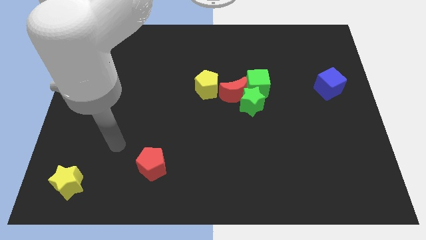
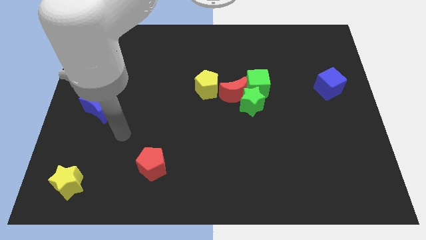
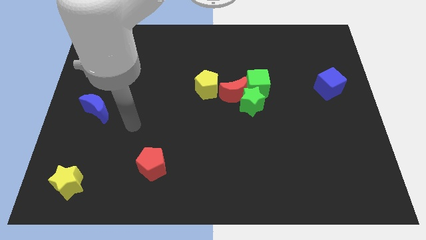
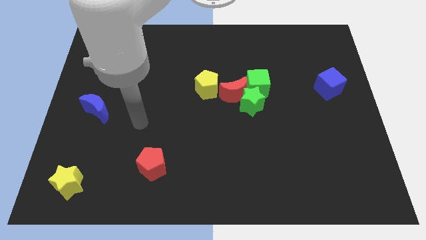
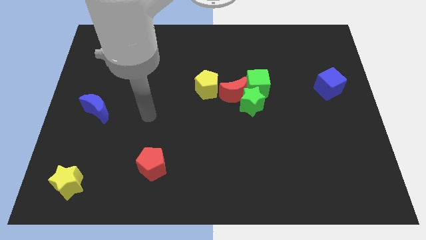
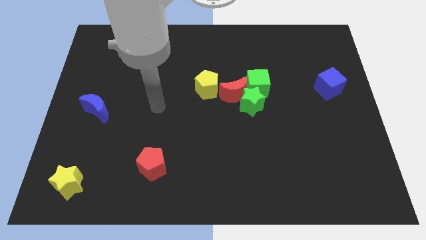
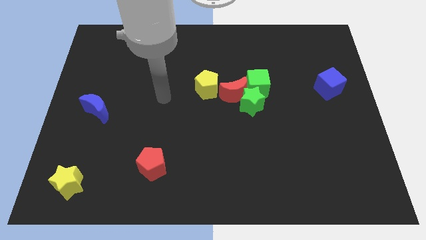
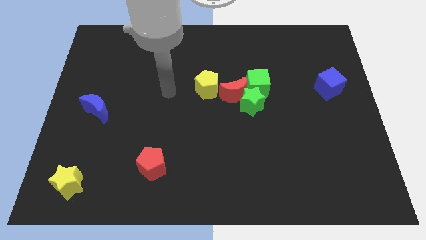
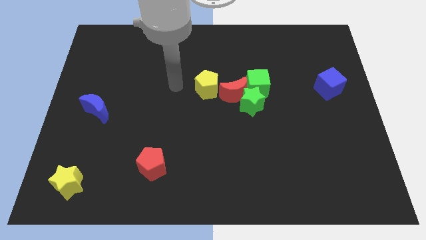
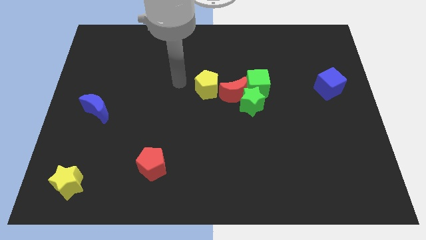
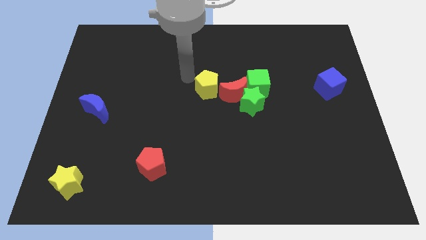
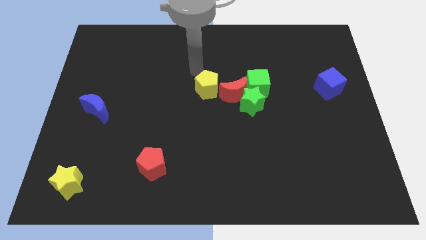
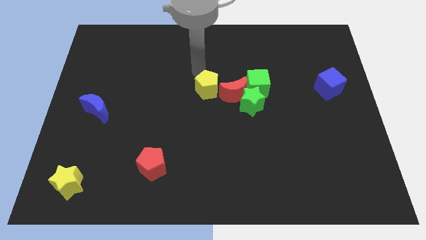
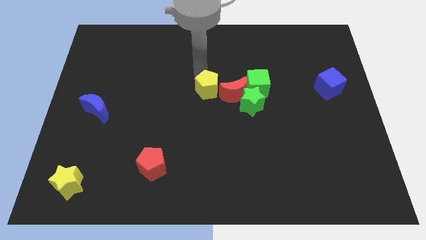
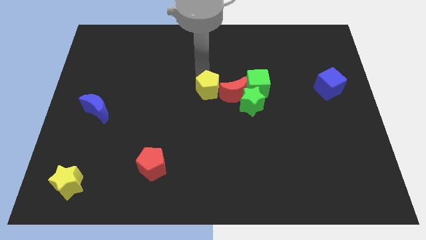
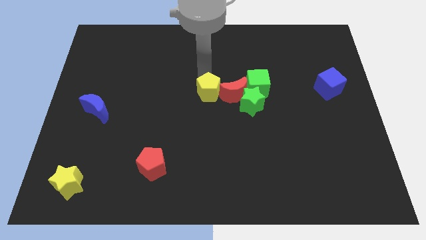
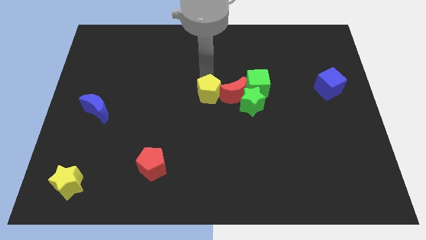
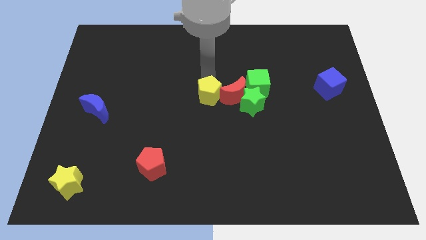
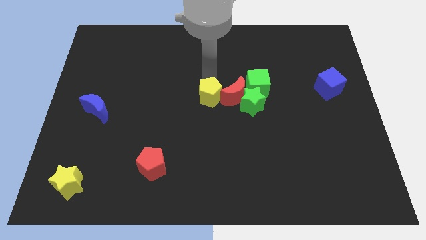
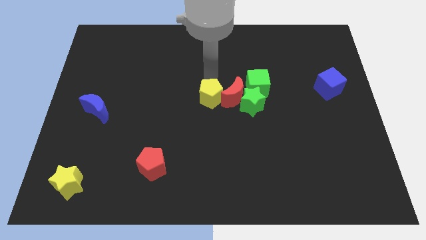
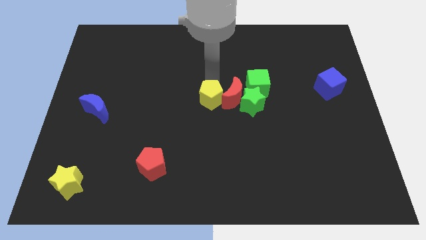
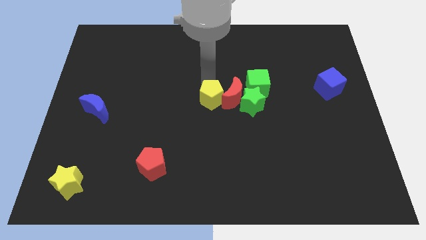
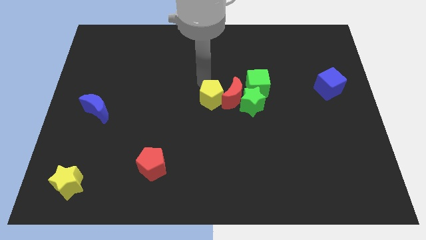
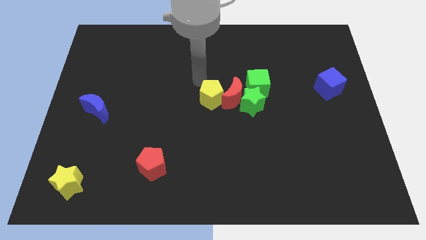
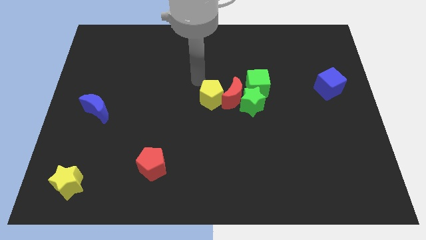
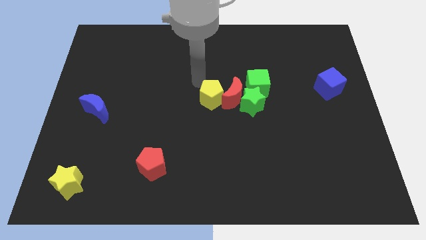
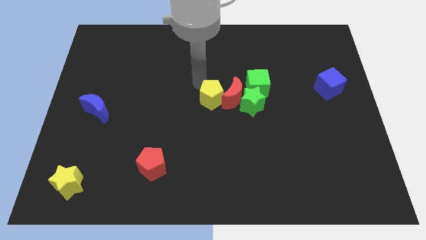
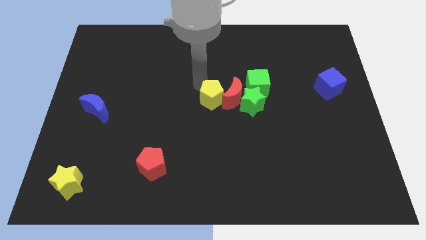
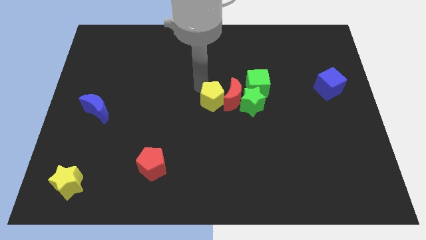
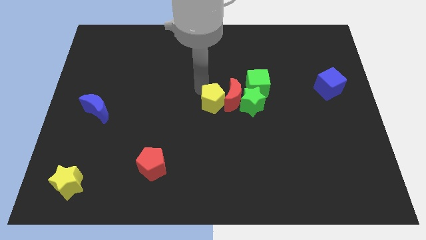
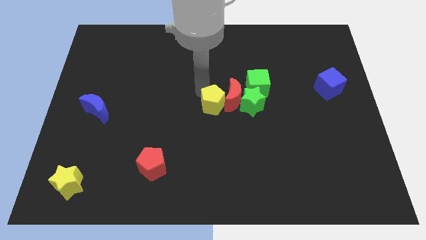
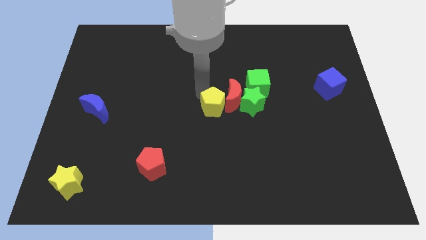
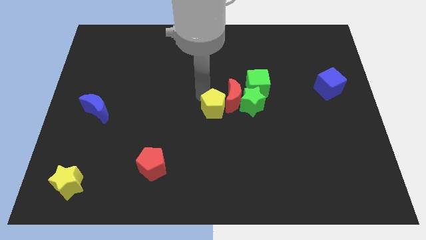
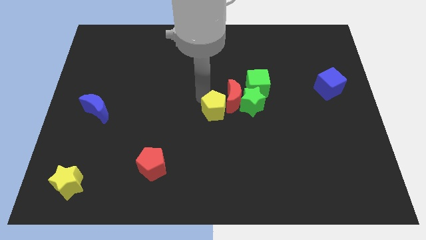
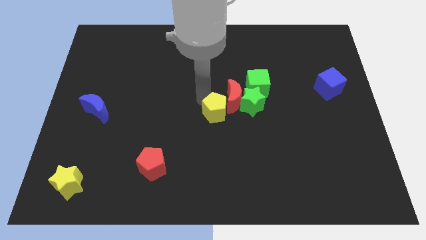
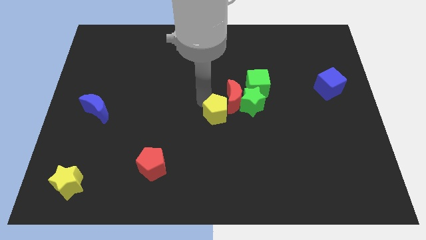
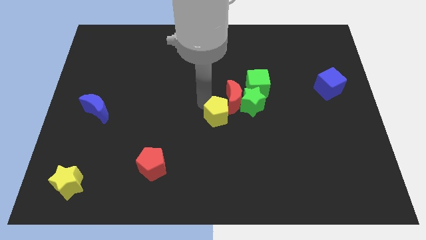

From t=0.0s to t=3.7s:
slightly slide the yellow pentagon downwards and then right

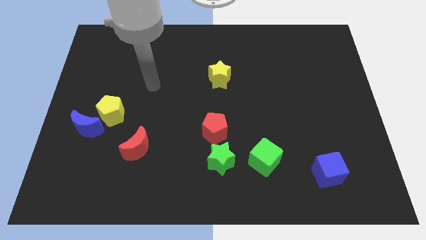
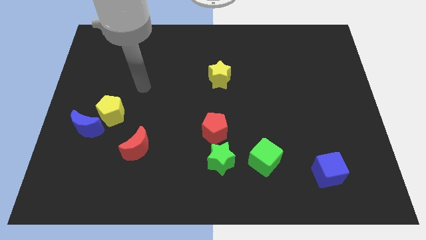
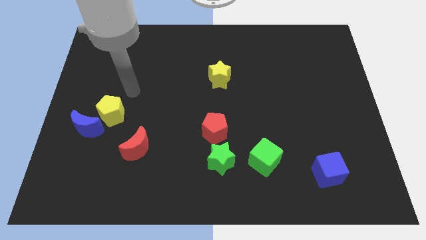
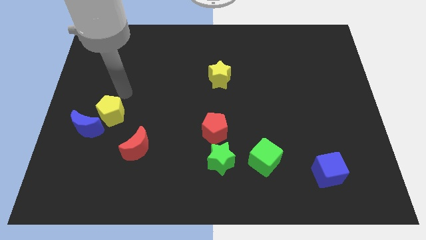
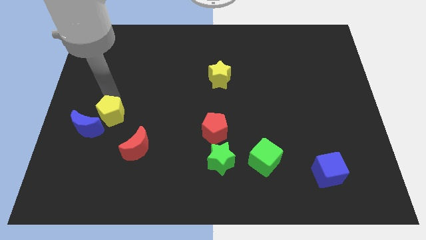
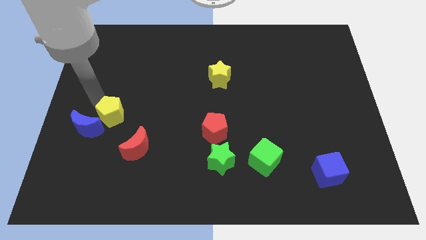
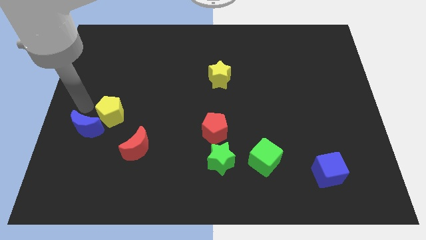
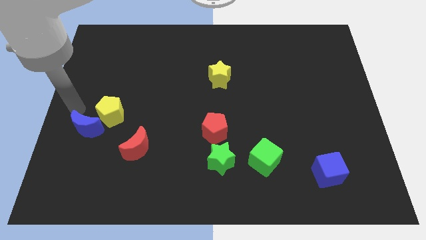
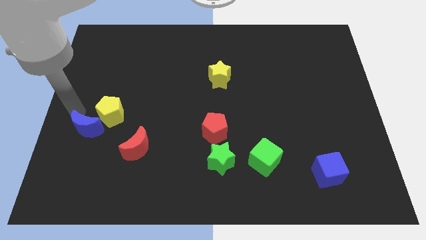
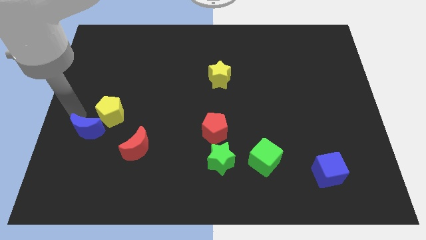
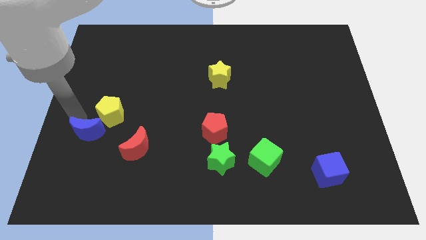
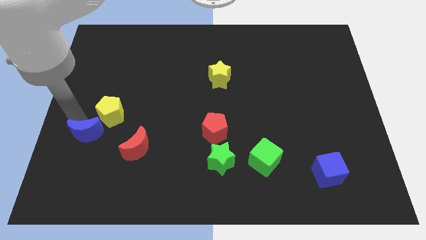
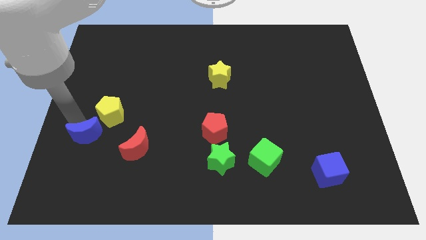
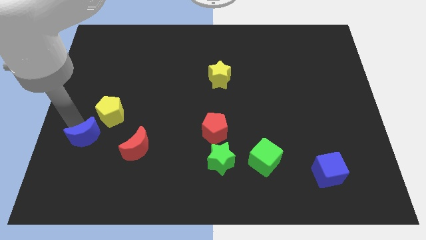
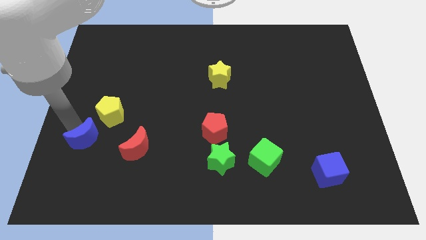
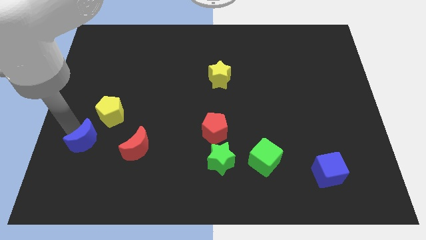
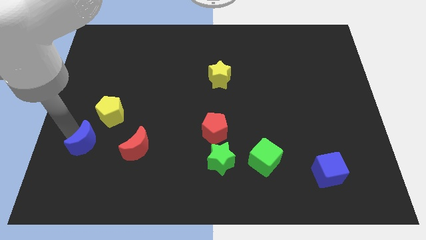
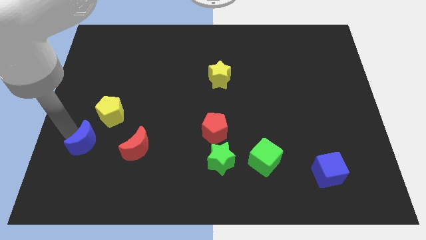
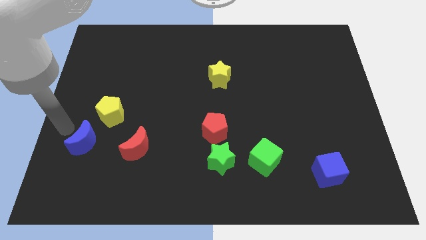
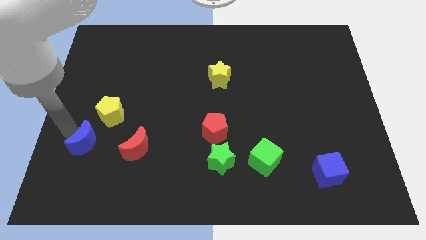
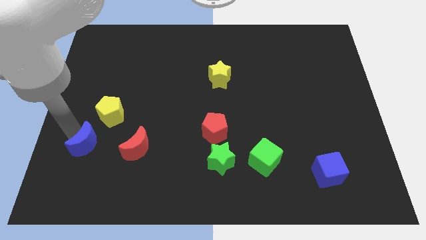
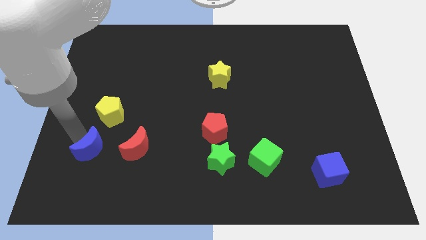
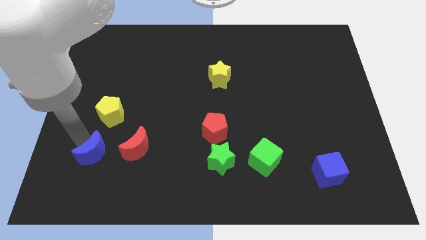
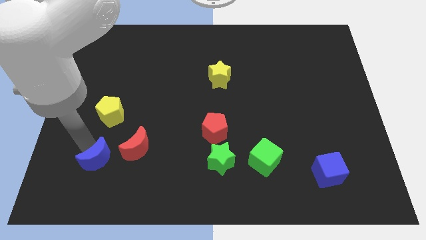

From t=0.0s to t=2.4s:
slide the blue moon diagonally down and to the right a little bit

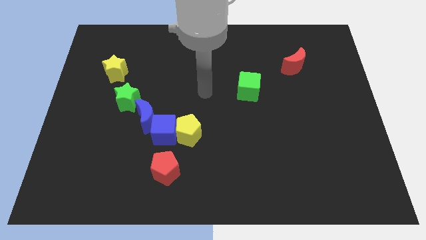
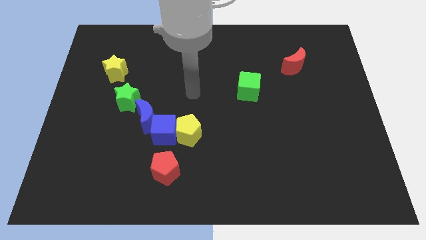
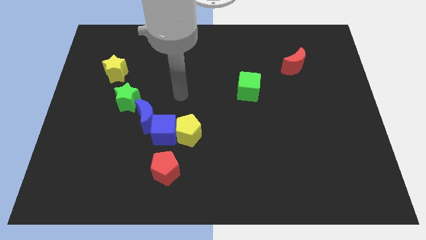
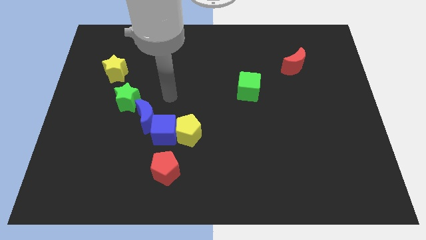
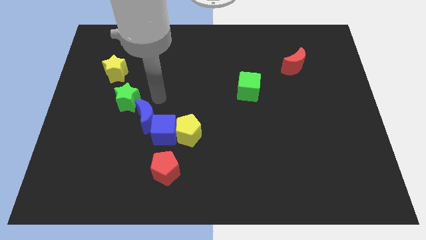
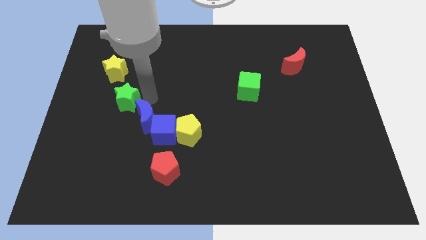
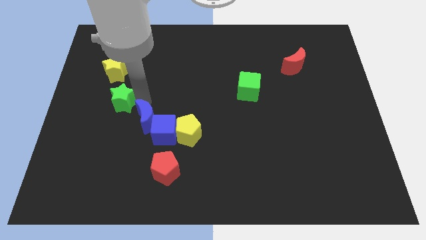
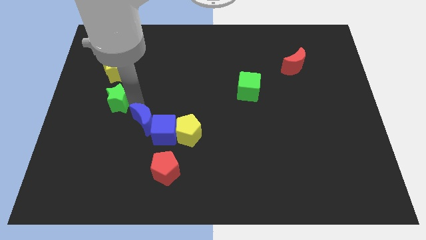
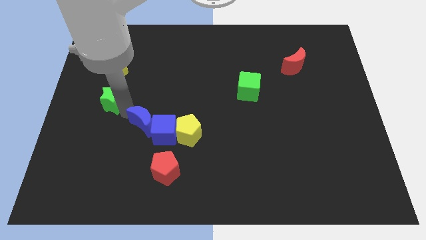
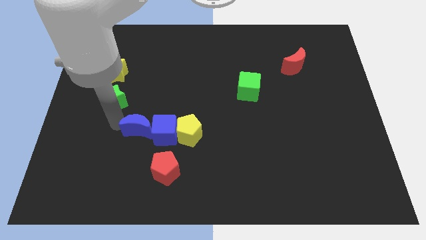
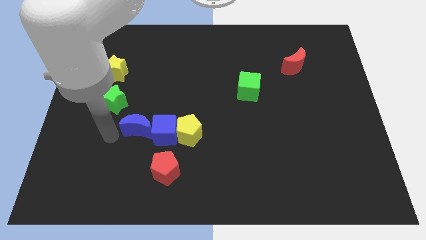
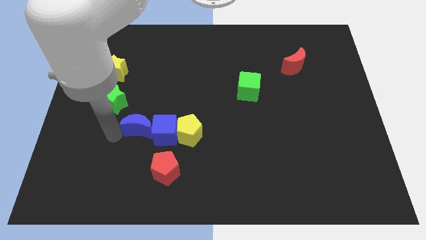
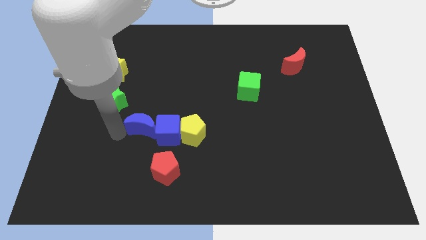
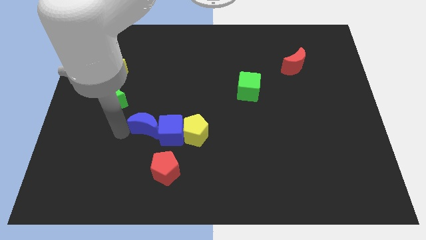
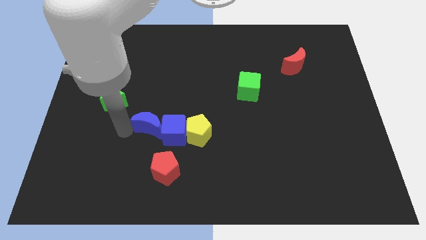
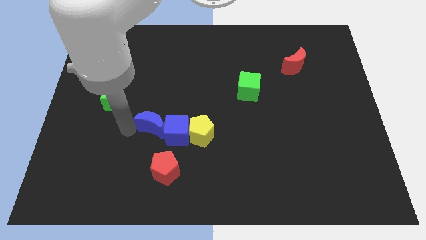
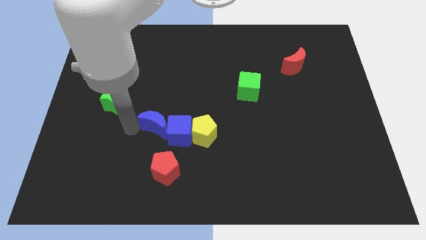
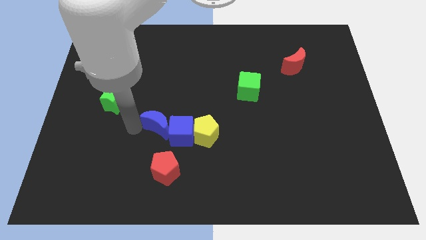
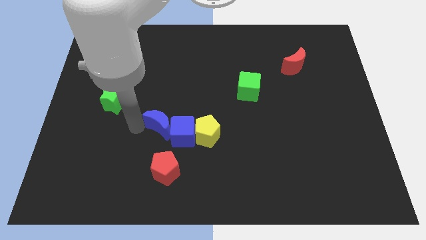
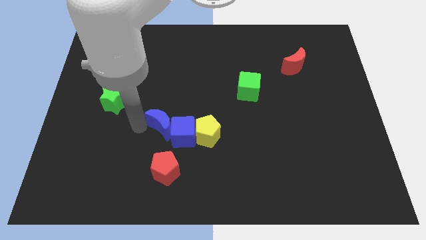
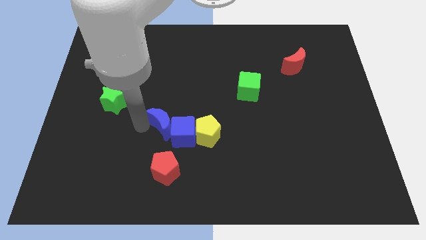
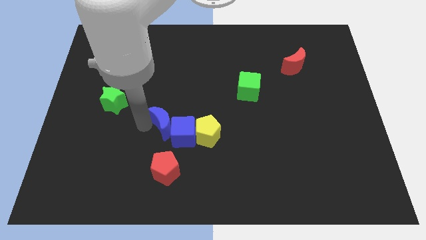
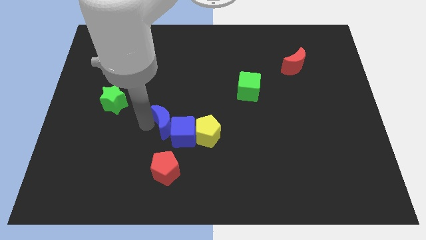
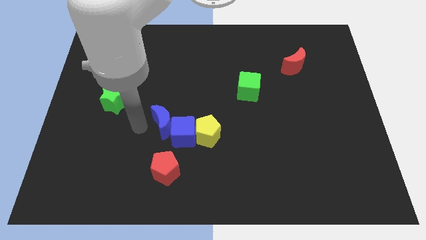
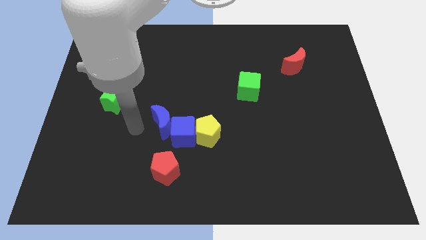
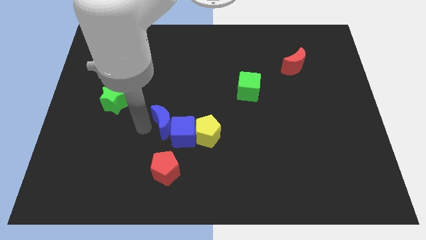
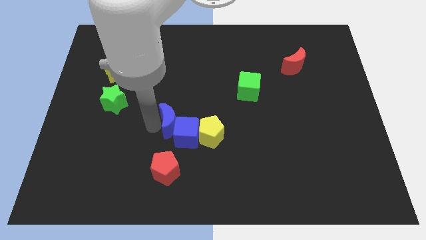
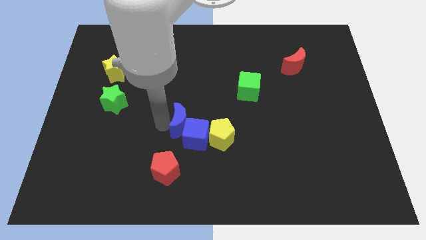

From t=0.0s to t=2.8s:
slightly slide the blue moon to the right
